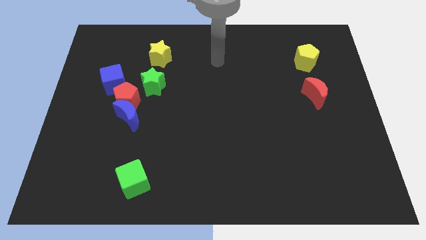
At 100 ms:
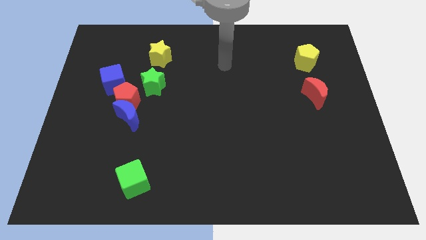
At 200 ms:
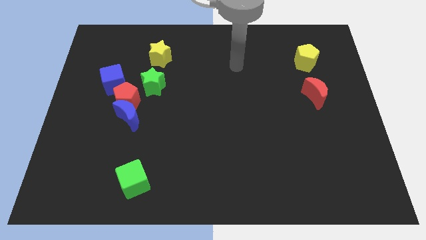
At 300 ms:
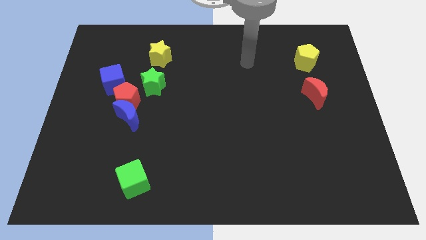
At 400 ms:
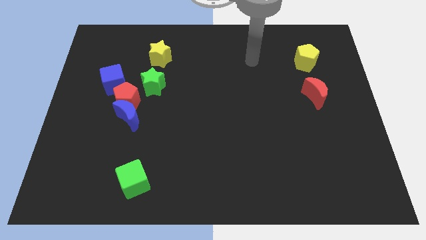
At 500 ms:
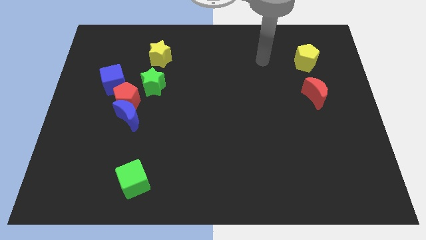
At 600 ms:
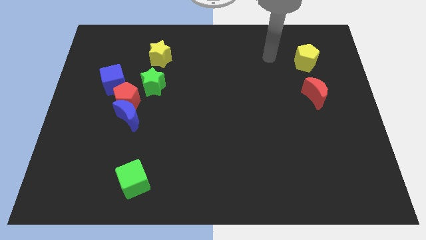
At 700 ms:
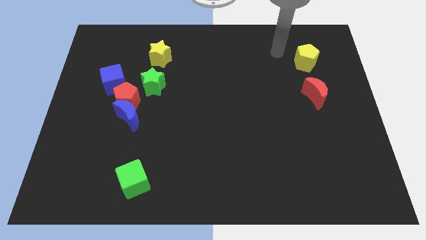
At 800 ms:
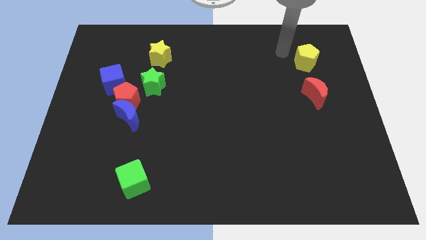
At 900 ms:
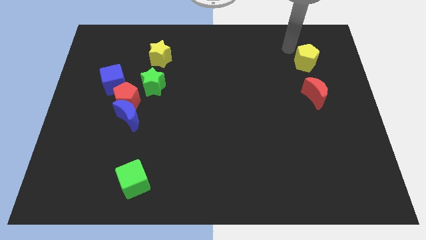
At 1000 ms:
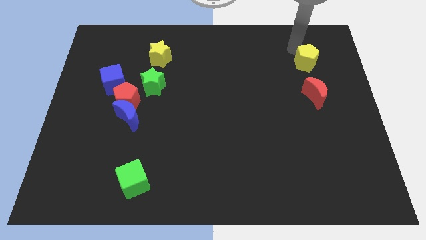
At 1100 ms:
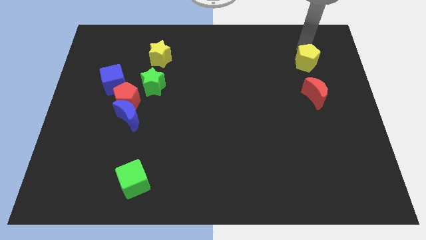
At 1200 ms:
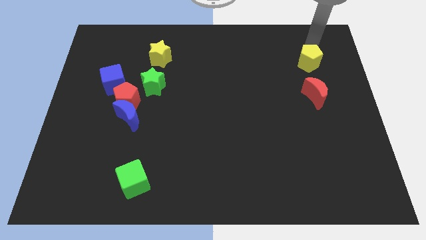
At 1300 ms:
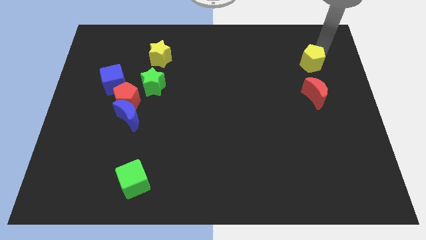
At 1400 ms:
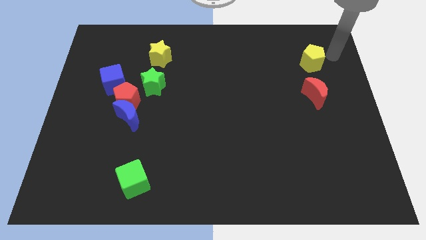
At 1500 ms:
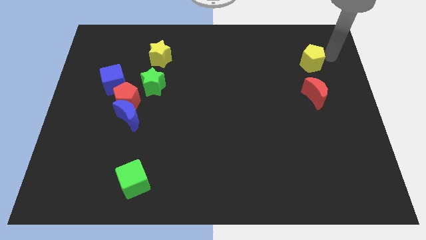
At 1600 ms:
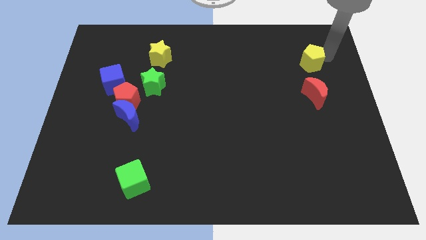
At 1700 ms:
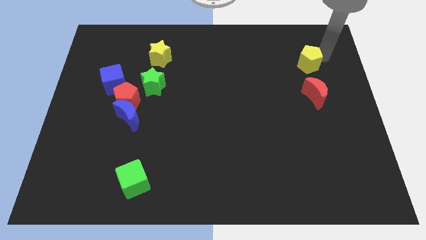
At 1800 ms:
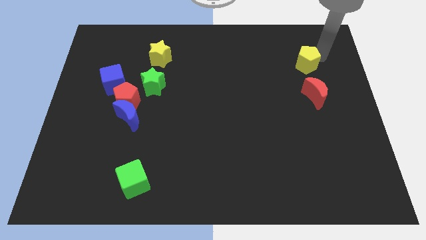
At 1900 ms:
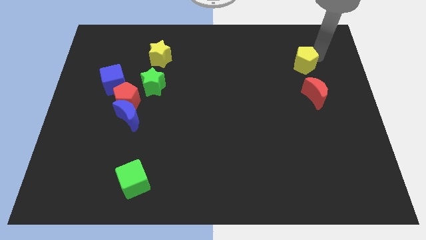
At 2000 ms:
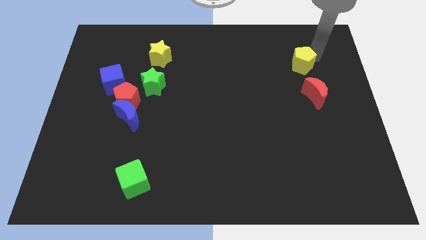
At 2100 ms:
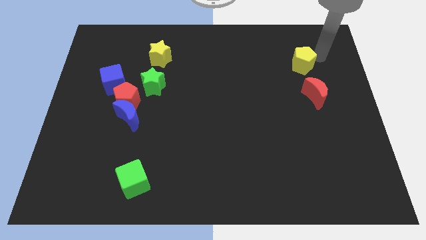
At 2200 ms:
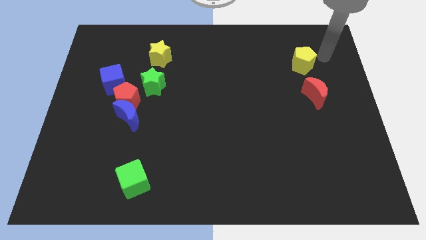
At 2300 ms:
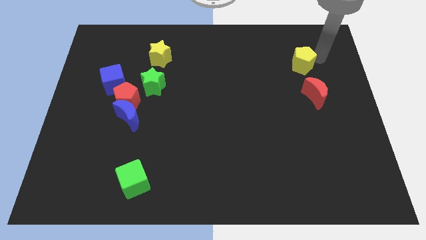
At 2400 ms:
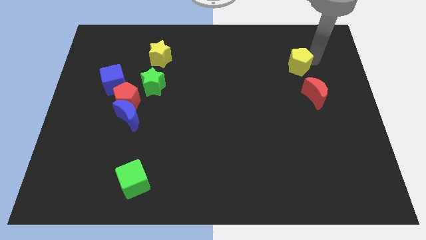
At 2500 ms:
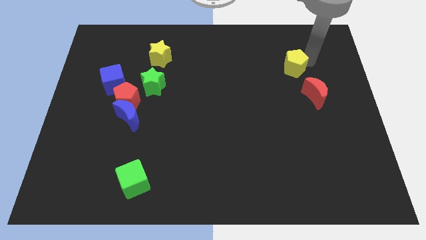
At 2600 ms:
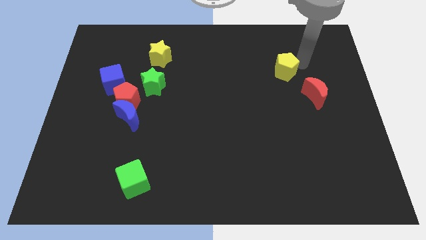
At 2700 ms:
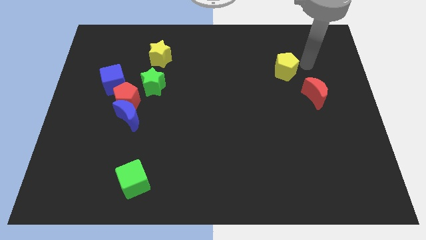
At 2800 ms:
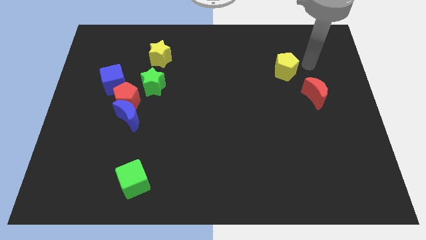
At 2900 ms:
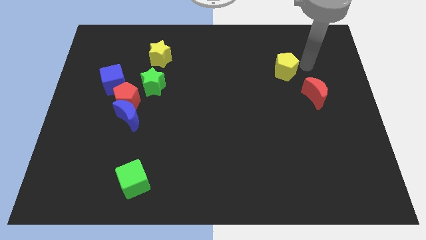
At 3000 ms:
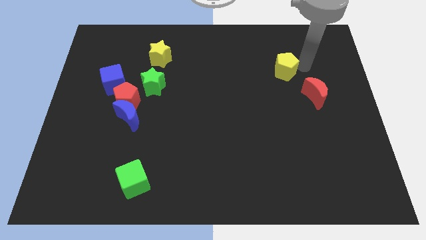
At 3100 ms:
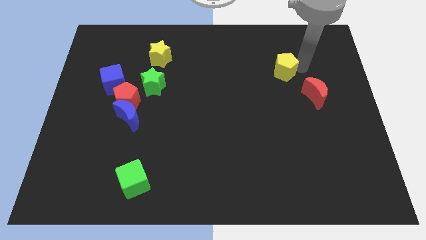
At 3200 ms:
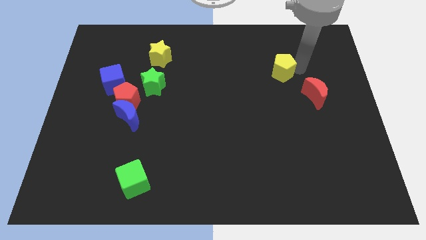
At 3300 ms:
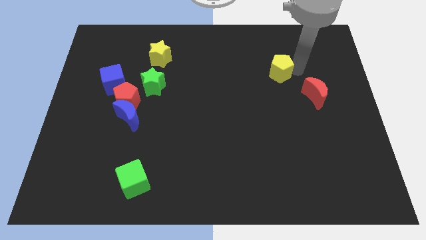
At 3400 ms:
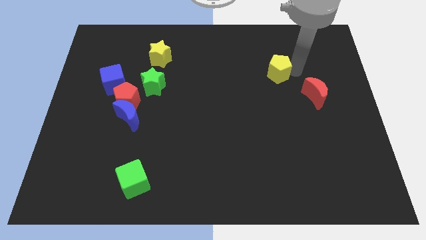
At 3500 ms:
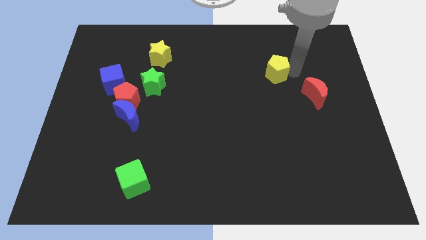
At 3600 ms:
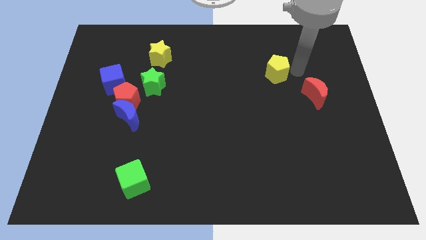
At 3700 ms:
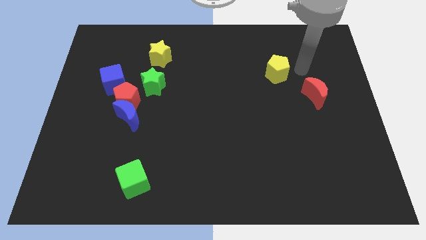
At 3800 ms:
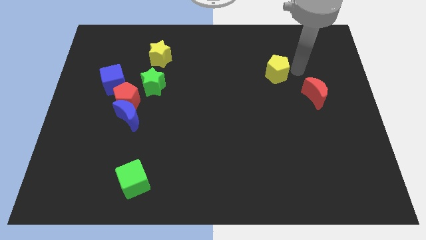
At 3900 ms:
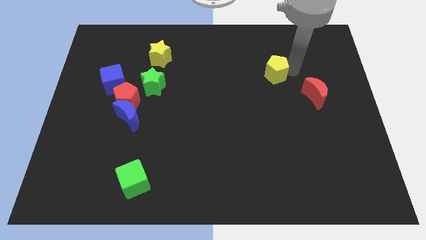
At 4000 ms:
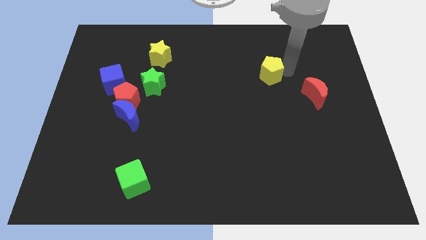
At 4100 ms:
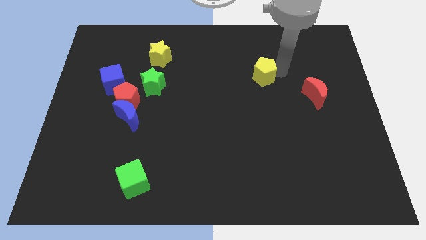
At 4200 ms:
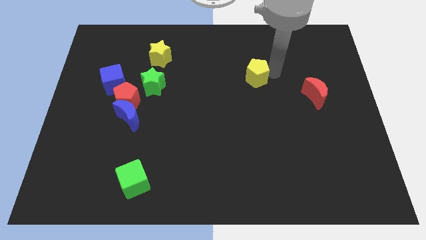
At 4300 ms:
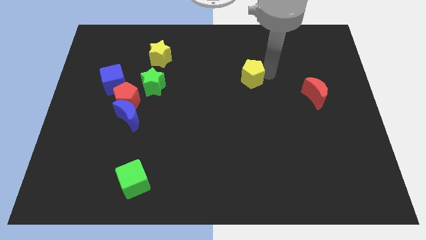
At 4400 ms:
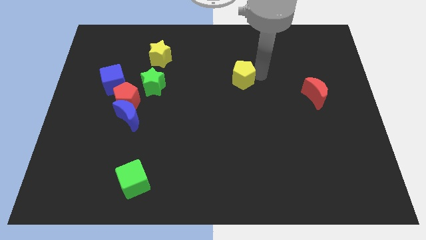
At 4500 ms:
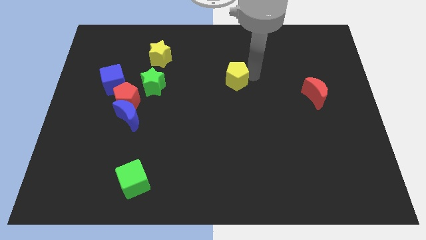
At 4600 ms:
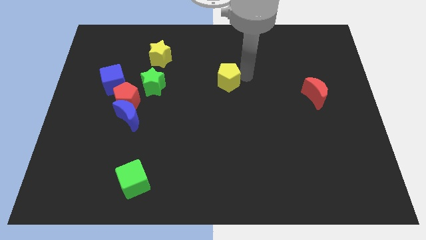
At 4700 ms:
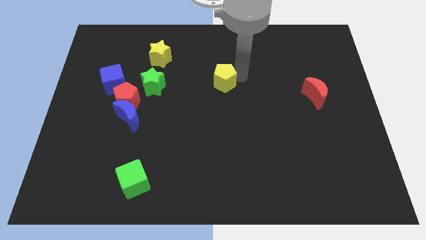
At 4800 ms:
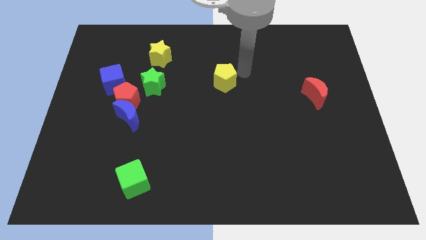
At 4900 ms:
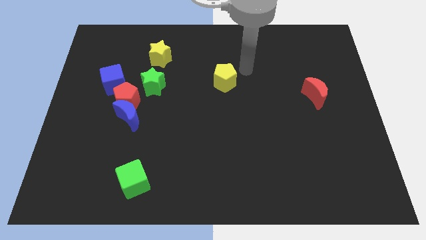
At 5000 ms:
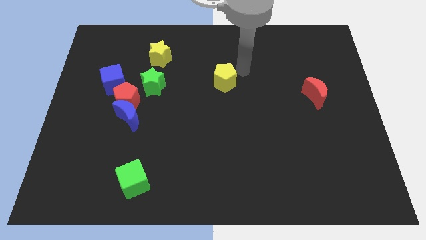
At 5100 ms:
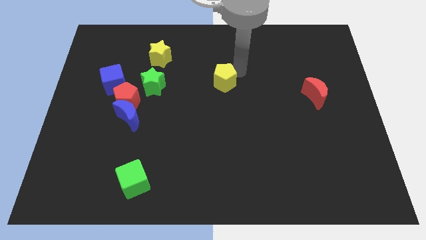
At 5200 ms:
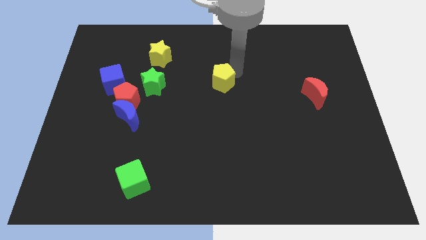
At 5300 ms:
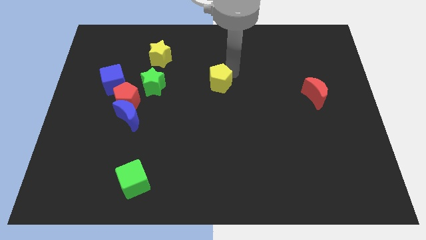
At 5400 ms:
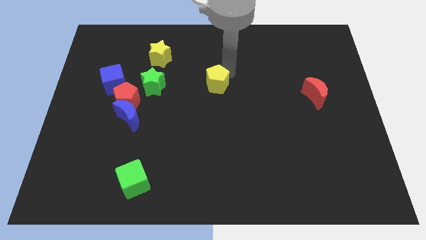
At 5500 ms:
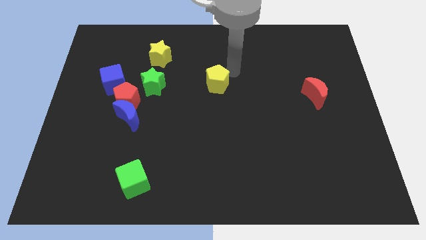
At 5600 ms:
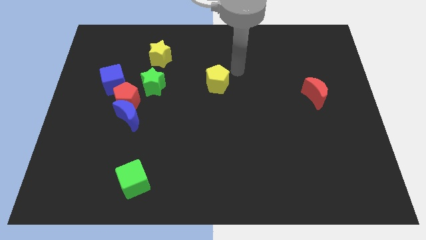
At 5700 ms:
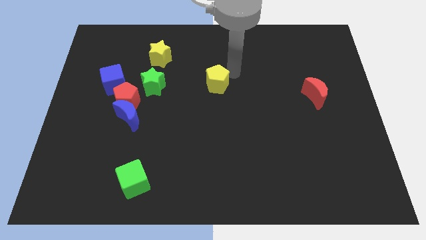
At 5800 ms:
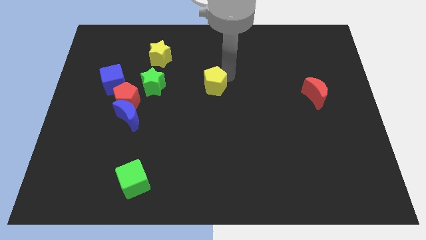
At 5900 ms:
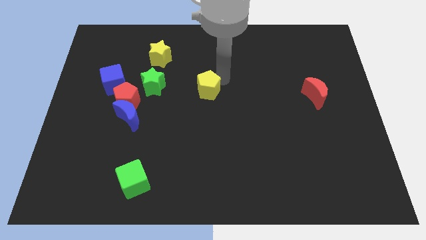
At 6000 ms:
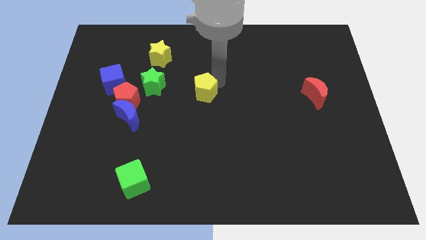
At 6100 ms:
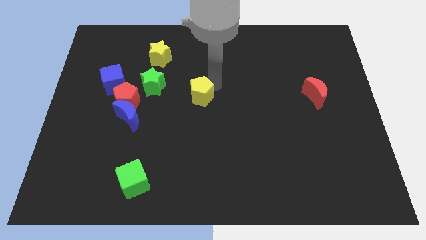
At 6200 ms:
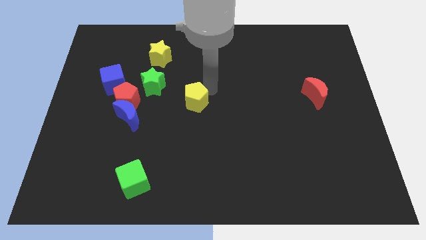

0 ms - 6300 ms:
put the yellow pentagon right of the red pentagon

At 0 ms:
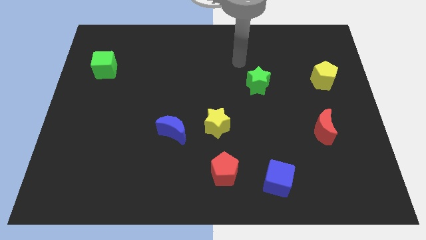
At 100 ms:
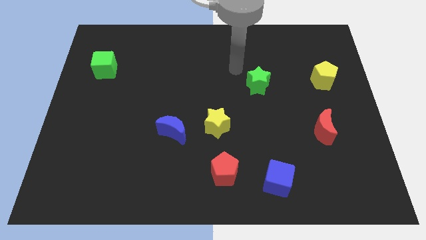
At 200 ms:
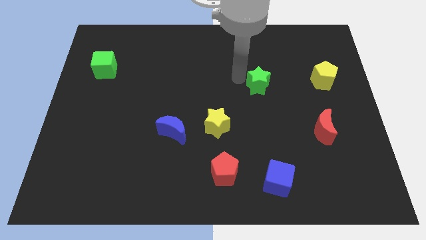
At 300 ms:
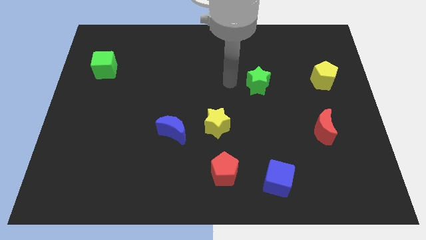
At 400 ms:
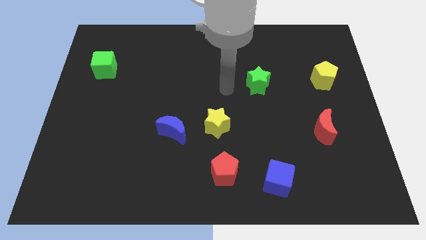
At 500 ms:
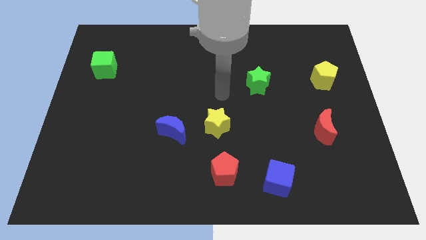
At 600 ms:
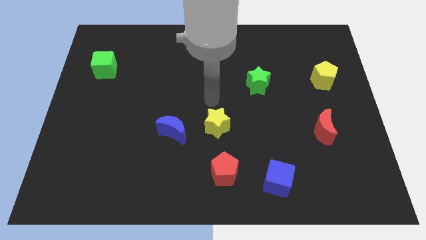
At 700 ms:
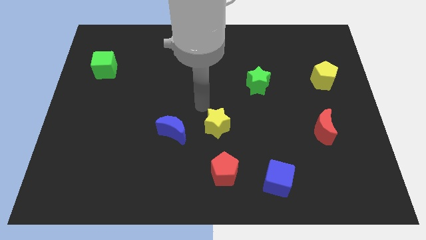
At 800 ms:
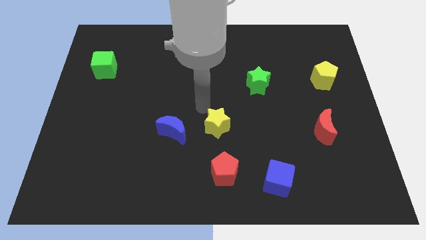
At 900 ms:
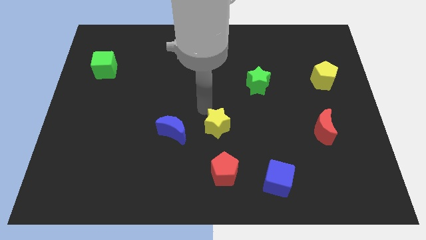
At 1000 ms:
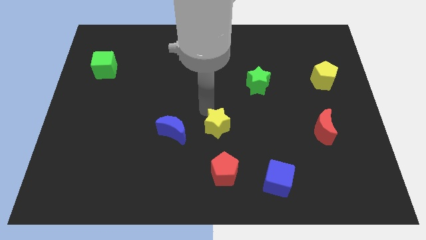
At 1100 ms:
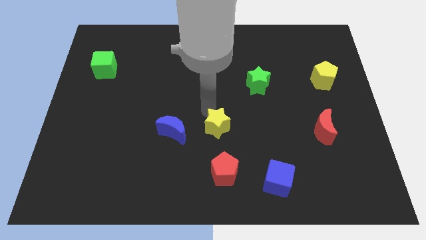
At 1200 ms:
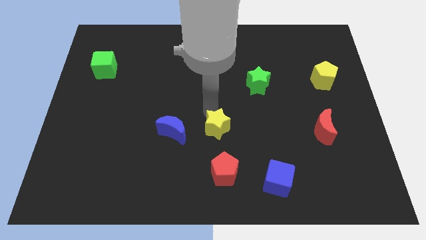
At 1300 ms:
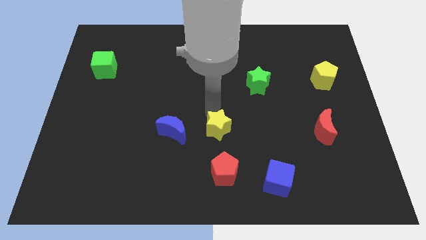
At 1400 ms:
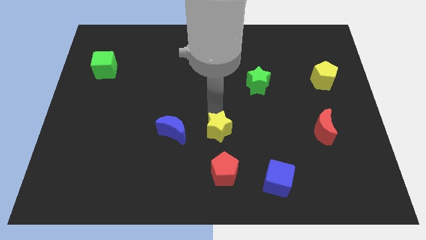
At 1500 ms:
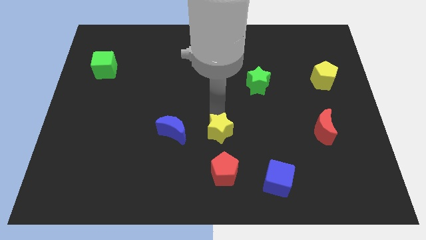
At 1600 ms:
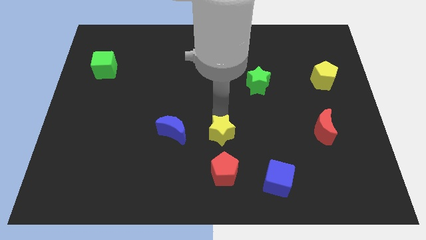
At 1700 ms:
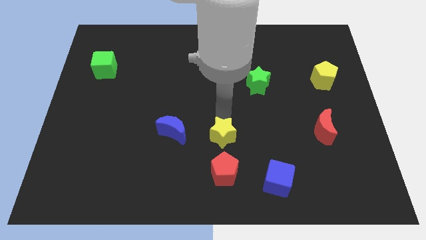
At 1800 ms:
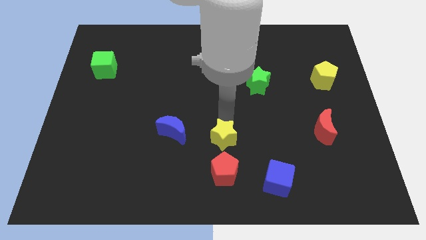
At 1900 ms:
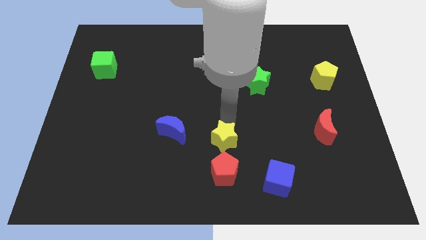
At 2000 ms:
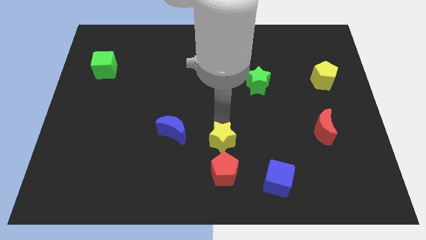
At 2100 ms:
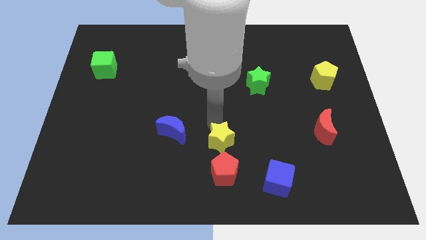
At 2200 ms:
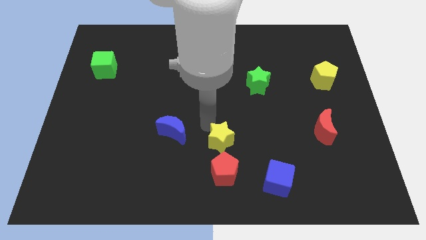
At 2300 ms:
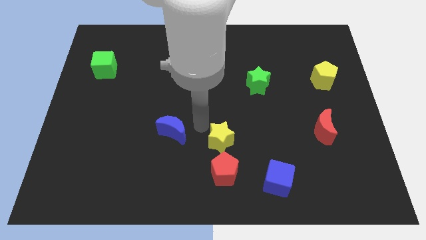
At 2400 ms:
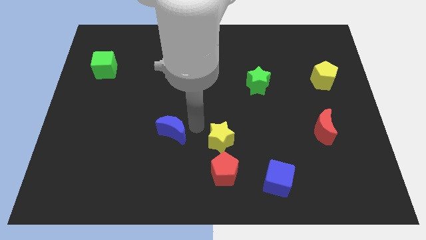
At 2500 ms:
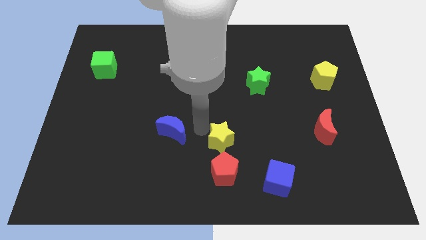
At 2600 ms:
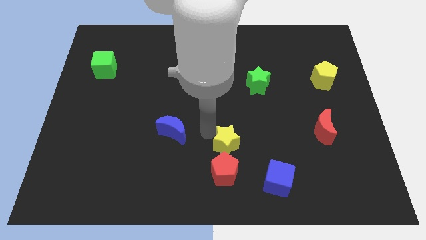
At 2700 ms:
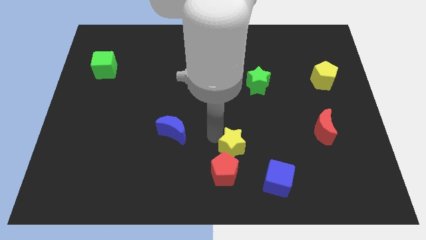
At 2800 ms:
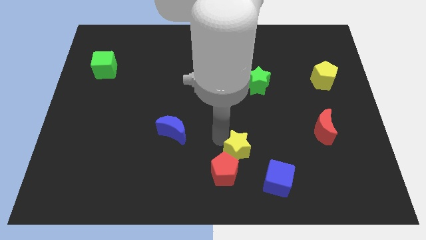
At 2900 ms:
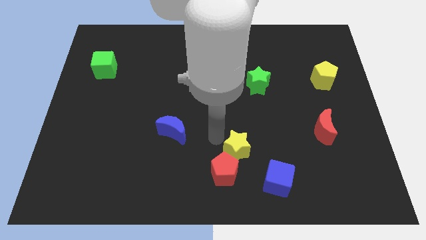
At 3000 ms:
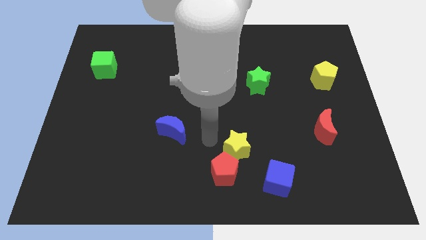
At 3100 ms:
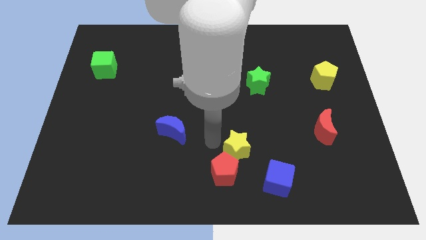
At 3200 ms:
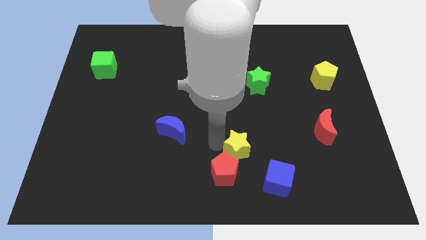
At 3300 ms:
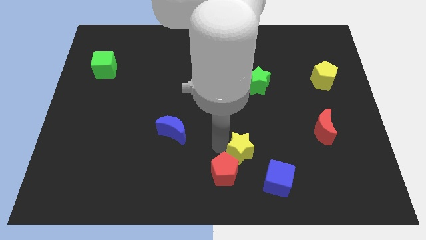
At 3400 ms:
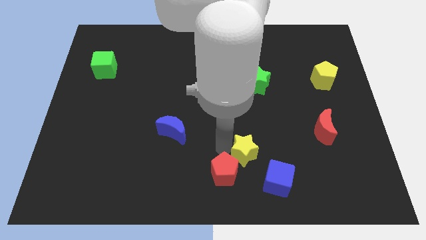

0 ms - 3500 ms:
push the yellow star right of the red pentagon
